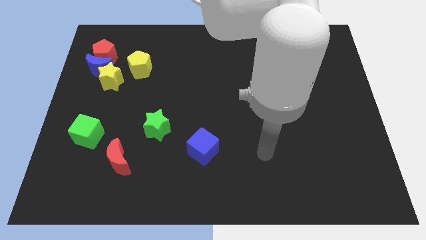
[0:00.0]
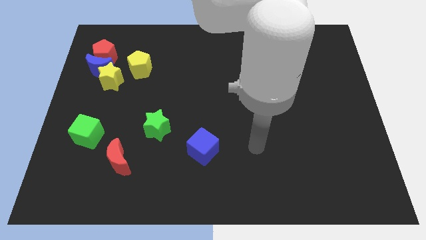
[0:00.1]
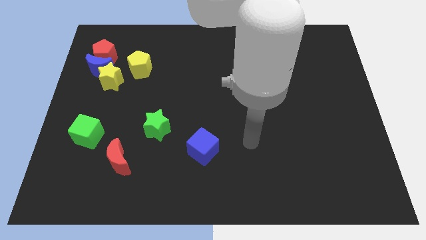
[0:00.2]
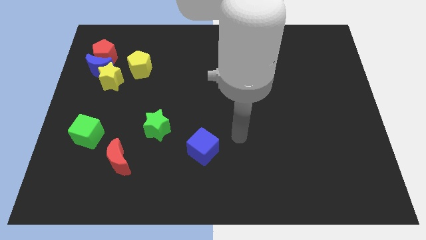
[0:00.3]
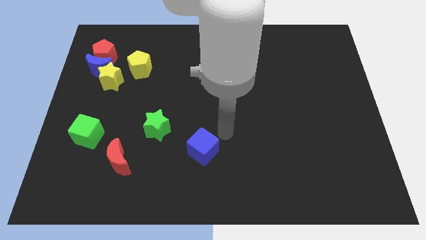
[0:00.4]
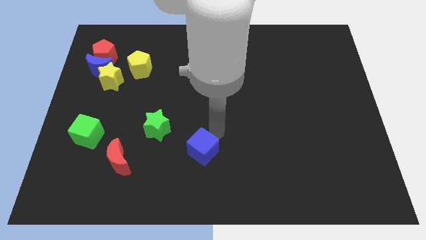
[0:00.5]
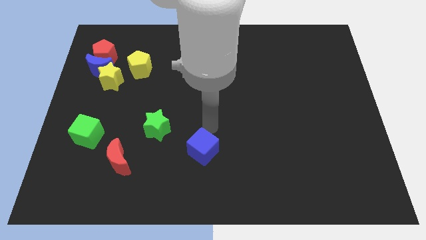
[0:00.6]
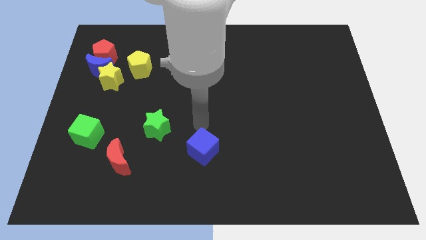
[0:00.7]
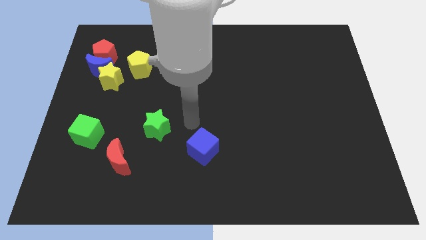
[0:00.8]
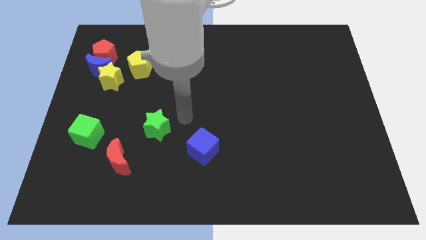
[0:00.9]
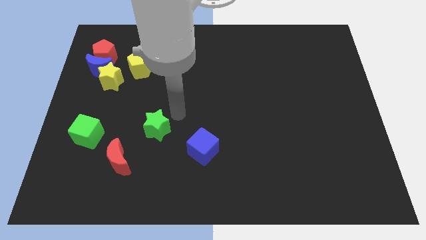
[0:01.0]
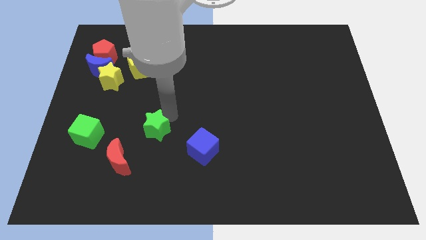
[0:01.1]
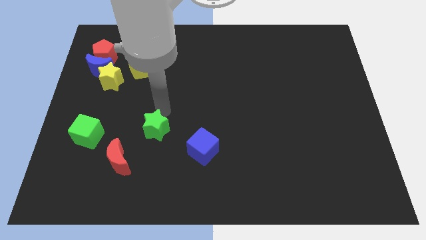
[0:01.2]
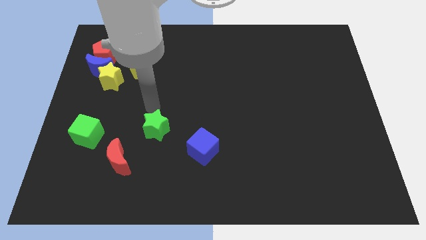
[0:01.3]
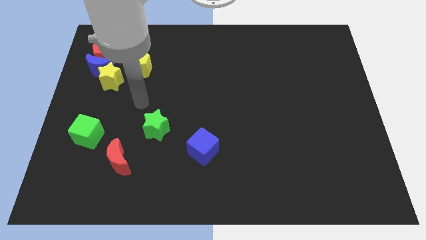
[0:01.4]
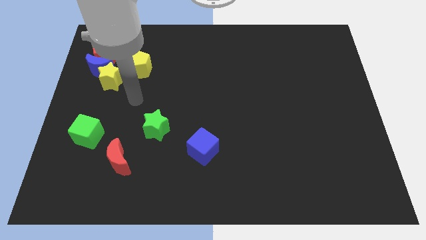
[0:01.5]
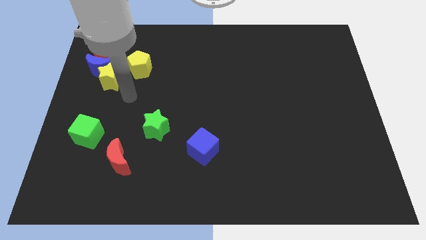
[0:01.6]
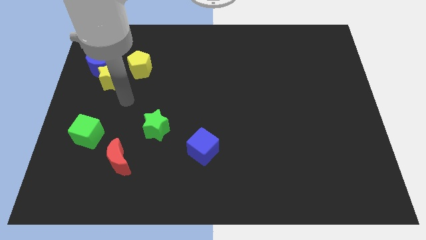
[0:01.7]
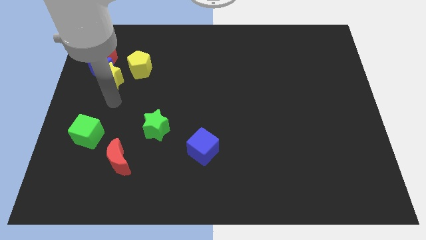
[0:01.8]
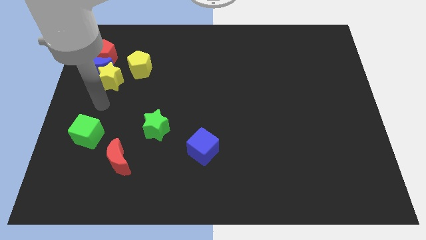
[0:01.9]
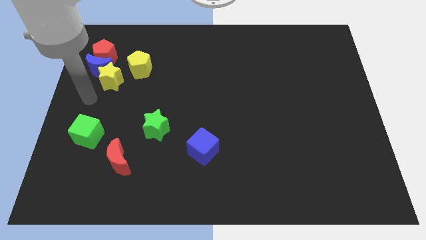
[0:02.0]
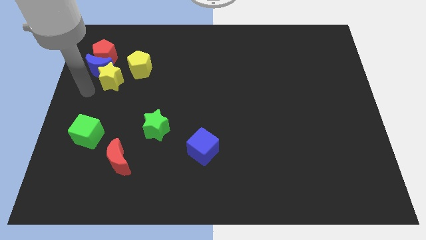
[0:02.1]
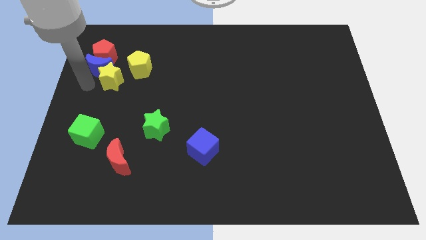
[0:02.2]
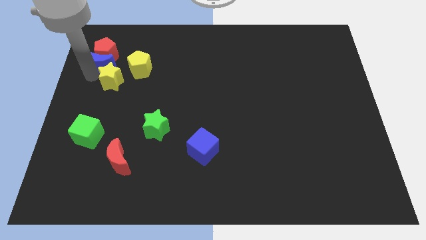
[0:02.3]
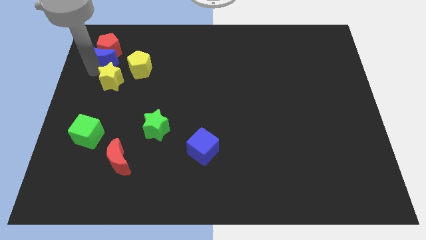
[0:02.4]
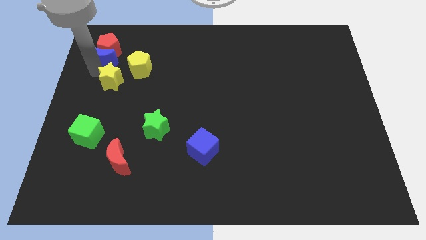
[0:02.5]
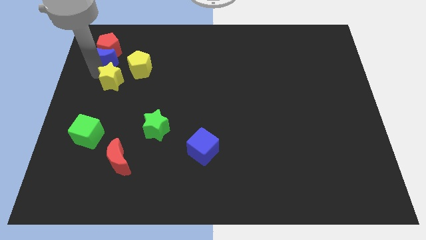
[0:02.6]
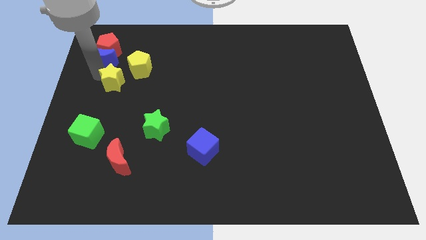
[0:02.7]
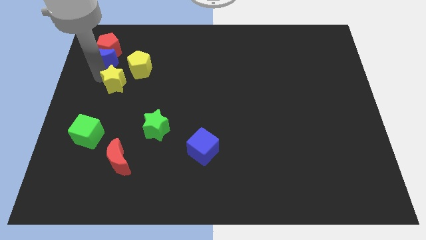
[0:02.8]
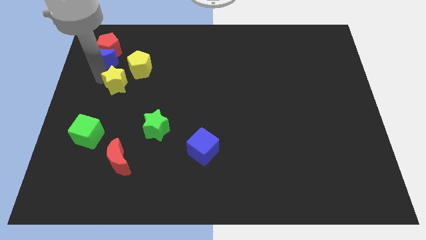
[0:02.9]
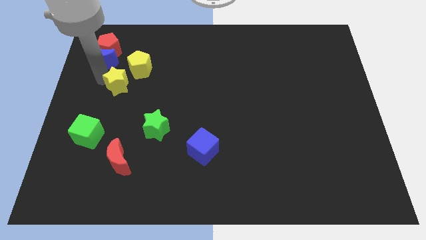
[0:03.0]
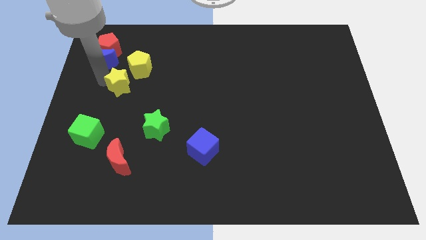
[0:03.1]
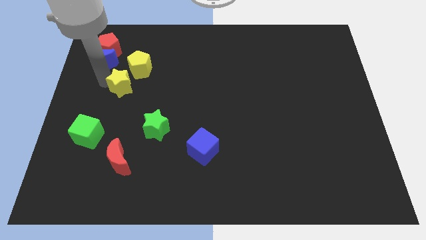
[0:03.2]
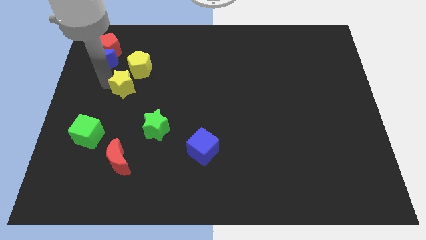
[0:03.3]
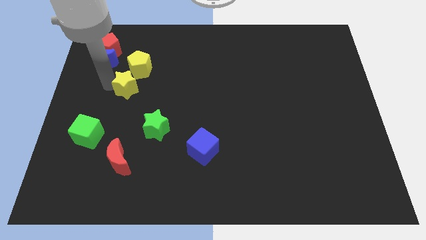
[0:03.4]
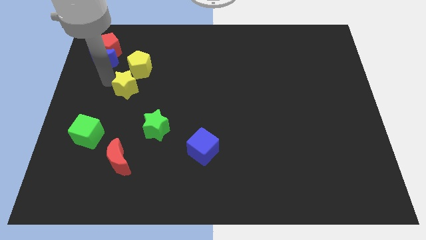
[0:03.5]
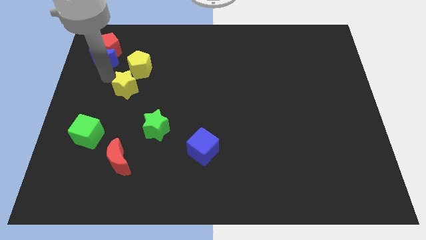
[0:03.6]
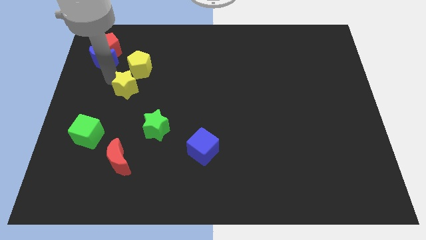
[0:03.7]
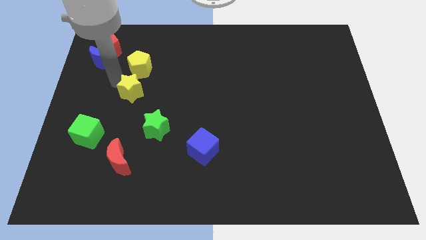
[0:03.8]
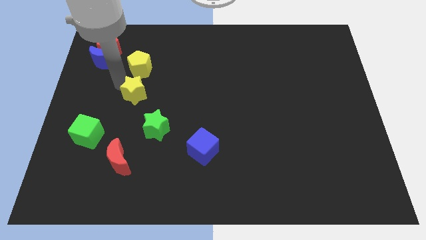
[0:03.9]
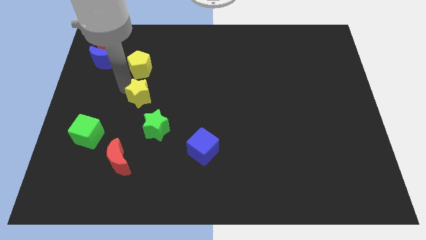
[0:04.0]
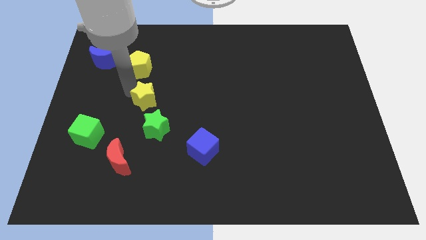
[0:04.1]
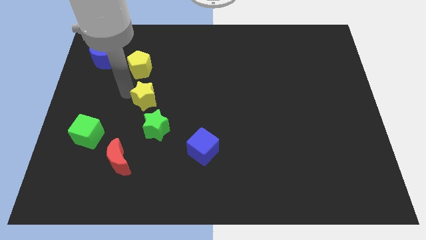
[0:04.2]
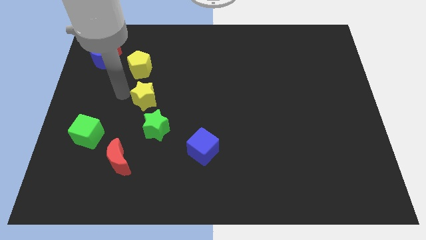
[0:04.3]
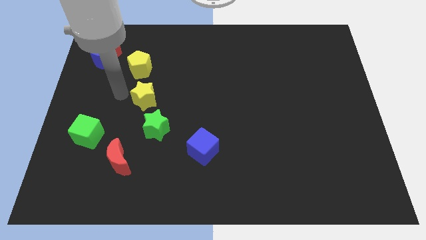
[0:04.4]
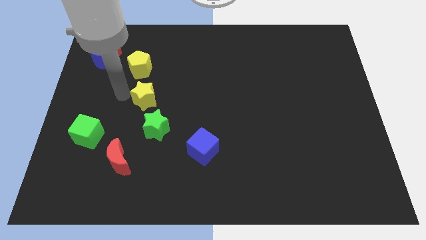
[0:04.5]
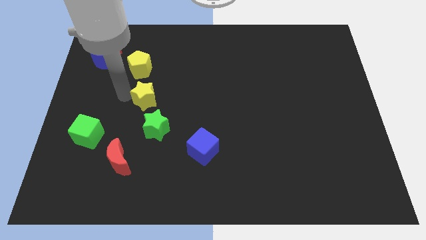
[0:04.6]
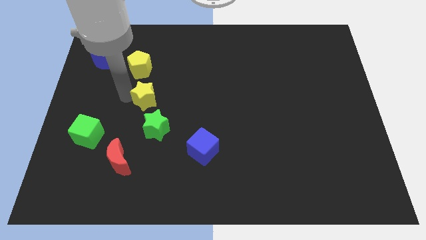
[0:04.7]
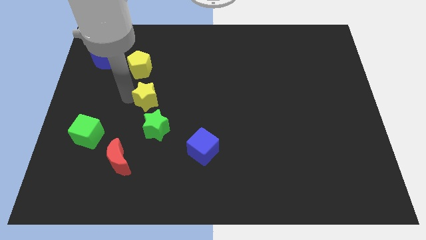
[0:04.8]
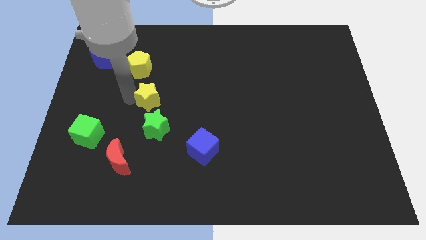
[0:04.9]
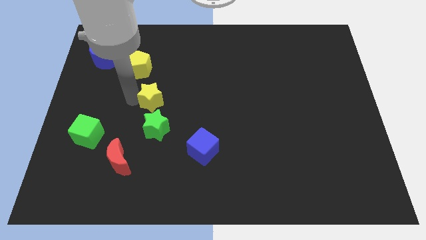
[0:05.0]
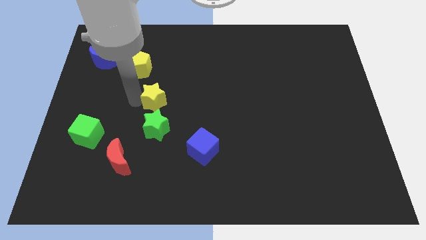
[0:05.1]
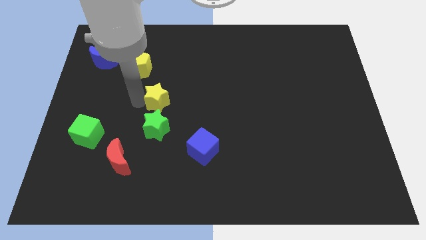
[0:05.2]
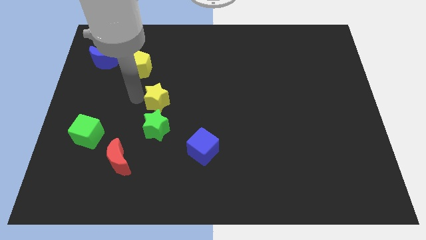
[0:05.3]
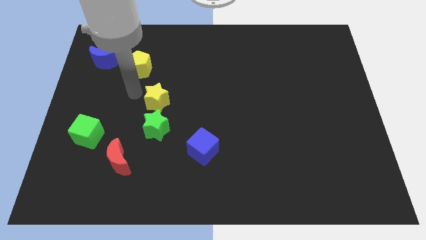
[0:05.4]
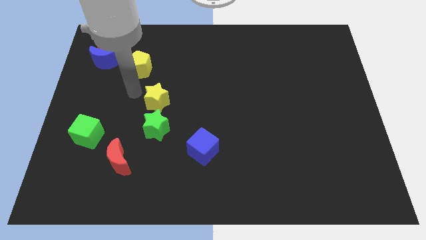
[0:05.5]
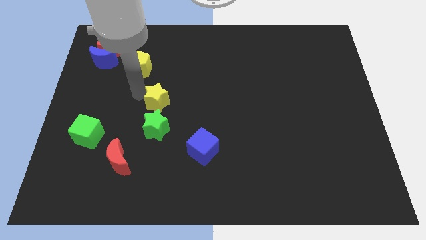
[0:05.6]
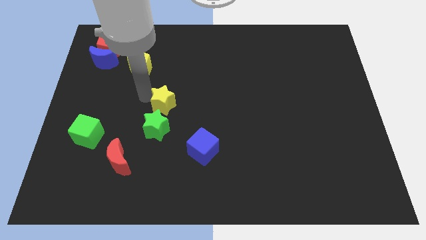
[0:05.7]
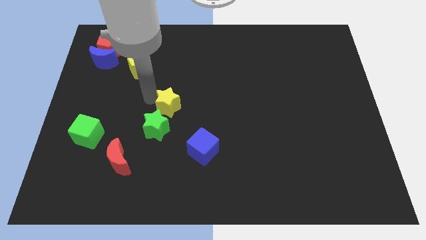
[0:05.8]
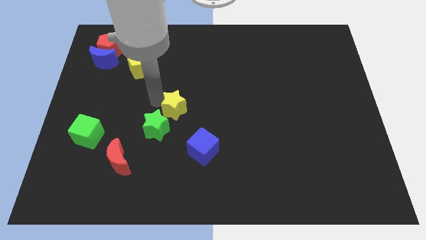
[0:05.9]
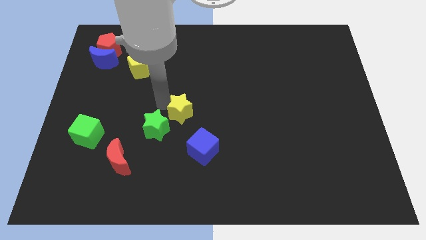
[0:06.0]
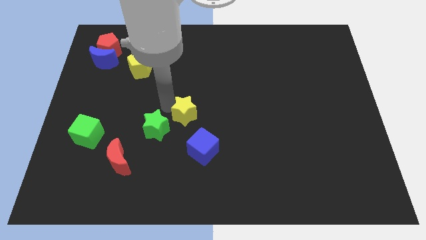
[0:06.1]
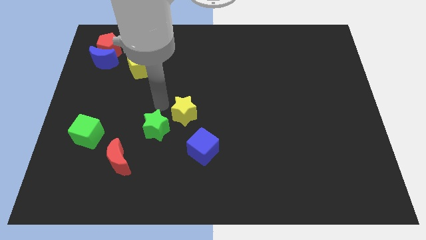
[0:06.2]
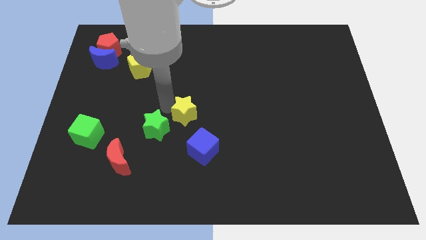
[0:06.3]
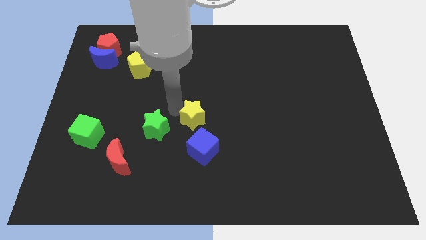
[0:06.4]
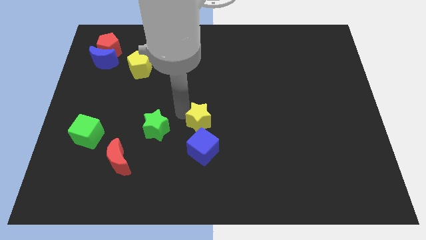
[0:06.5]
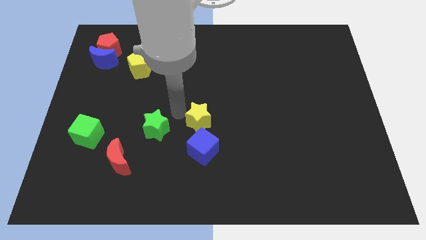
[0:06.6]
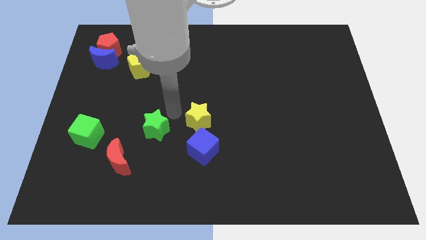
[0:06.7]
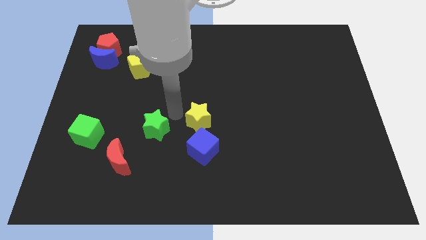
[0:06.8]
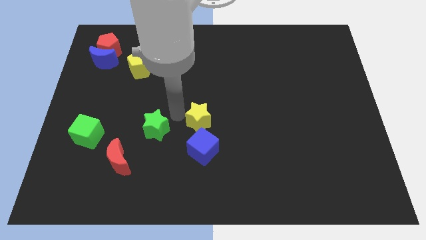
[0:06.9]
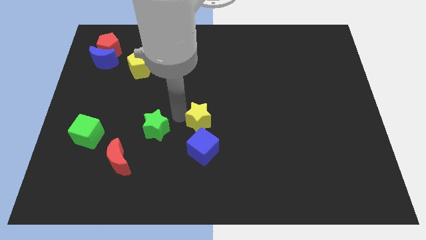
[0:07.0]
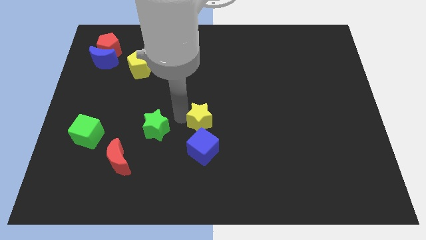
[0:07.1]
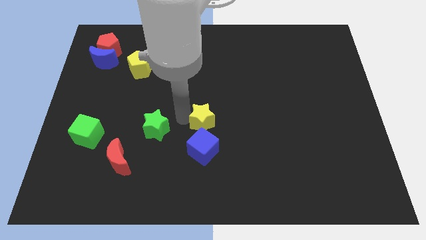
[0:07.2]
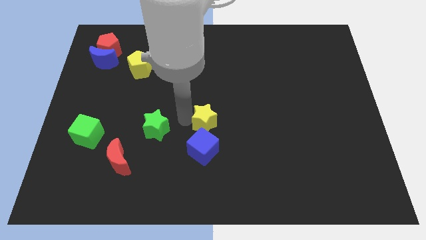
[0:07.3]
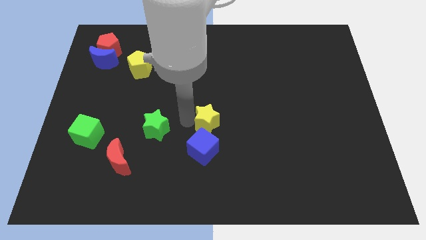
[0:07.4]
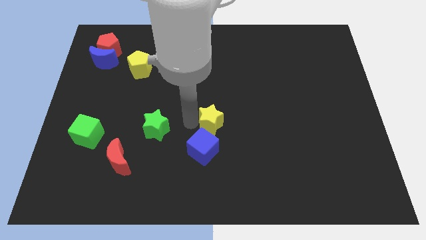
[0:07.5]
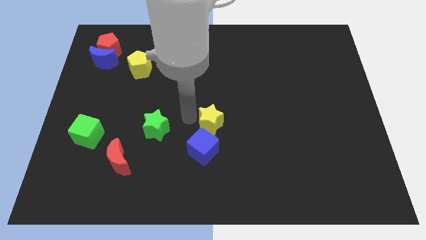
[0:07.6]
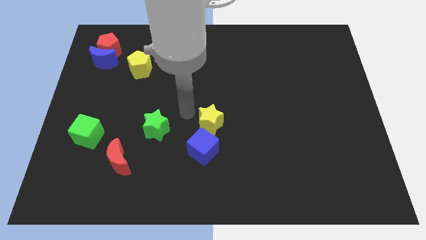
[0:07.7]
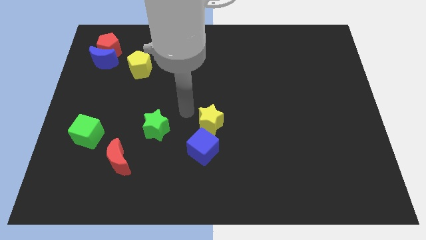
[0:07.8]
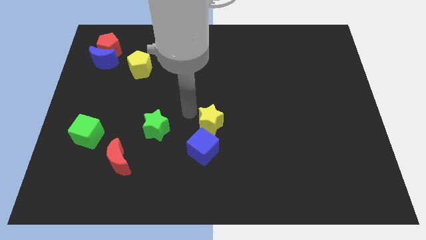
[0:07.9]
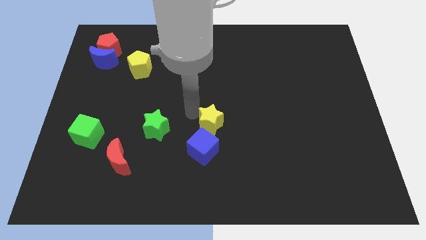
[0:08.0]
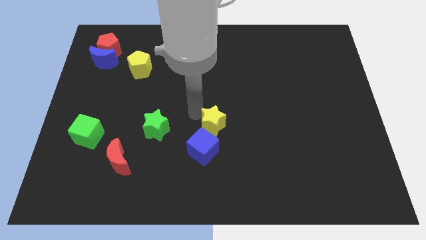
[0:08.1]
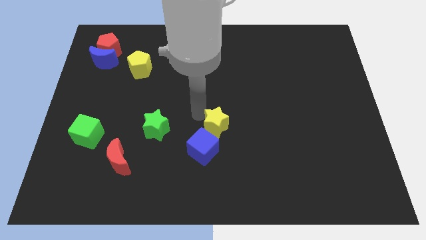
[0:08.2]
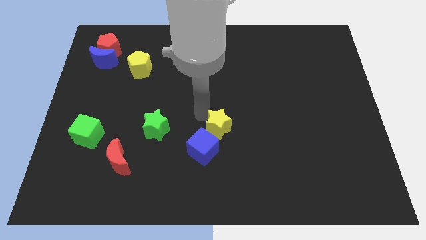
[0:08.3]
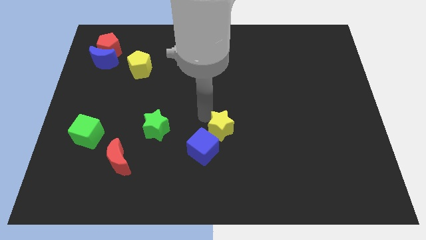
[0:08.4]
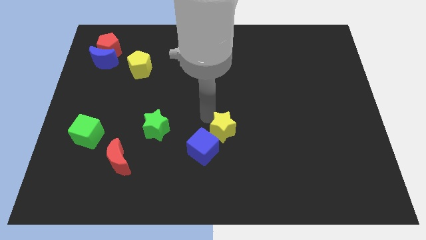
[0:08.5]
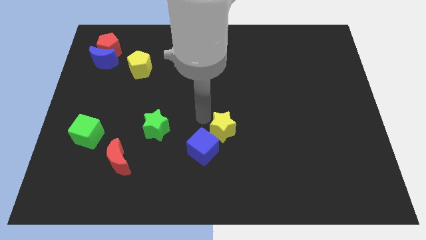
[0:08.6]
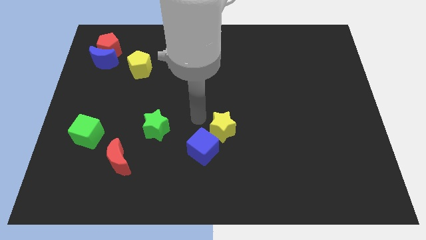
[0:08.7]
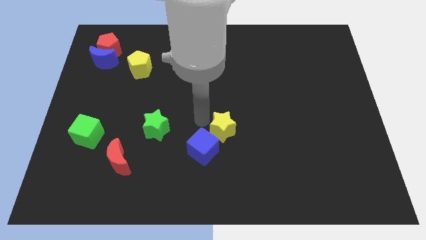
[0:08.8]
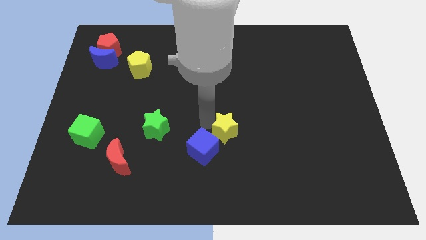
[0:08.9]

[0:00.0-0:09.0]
move the yellow star to the right side of the blue cube
